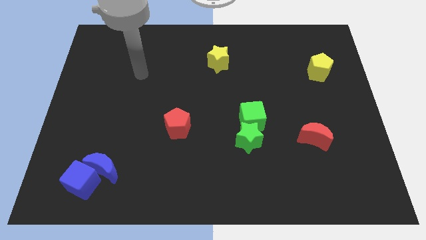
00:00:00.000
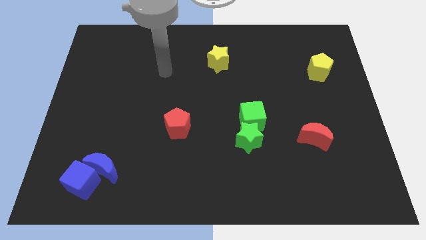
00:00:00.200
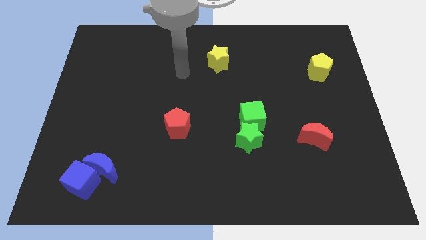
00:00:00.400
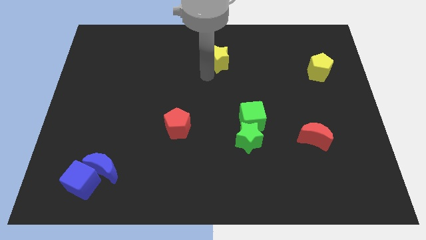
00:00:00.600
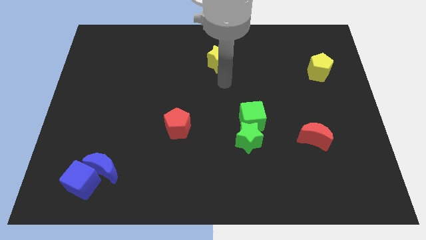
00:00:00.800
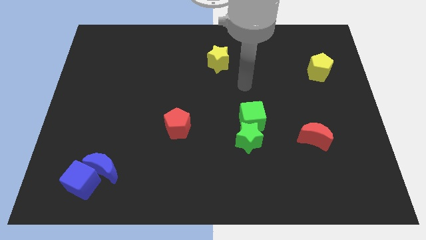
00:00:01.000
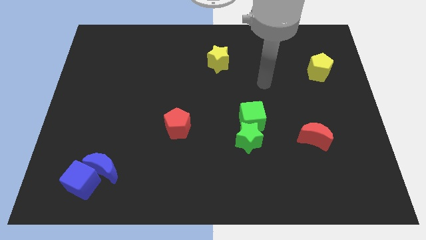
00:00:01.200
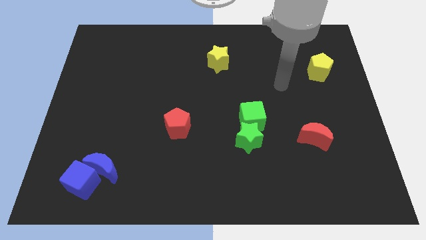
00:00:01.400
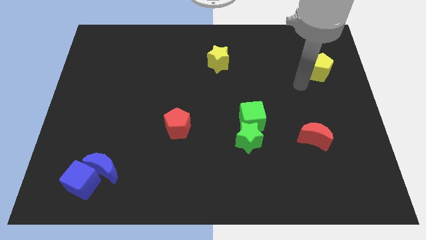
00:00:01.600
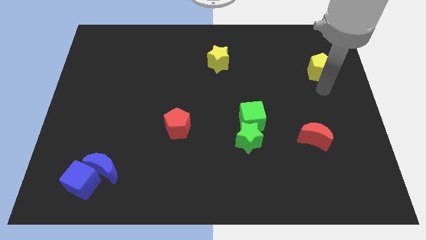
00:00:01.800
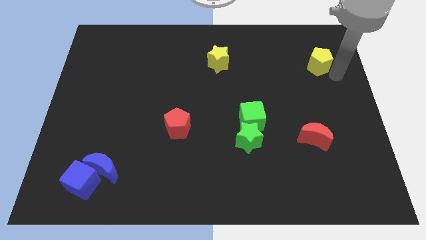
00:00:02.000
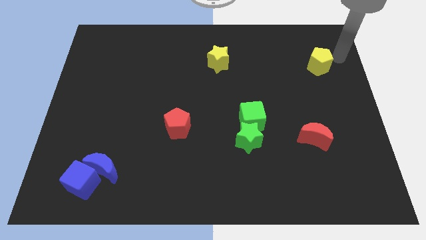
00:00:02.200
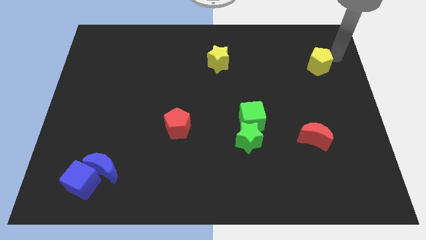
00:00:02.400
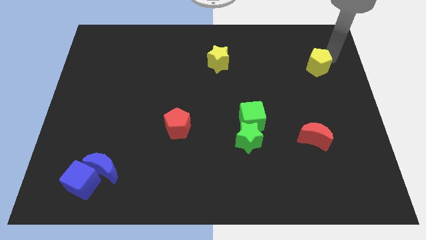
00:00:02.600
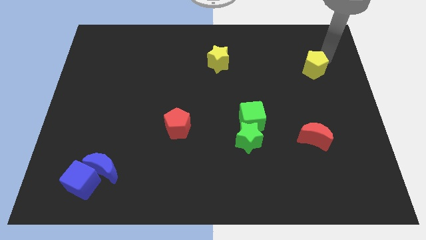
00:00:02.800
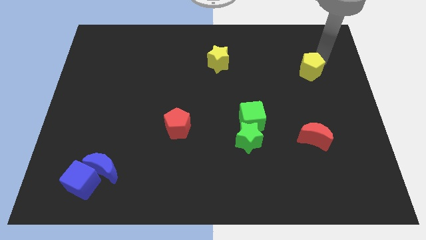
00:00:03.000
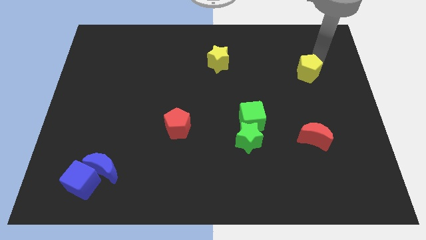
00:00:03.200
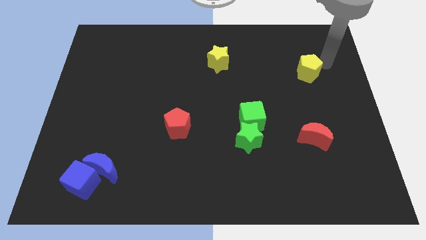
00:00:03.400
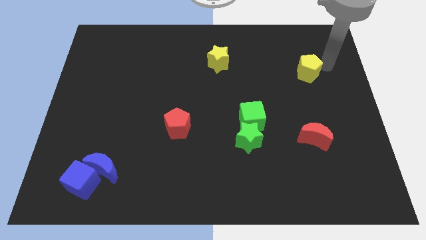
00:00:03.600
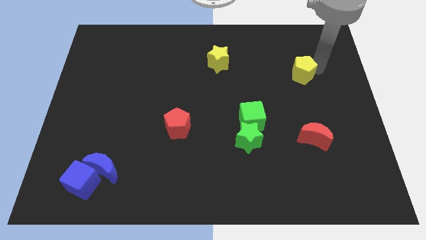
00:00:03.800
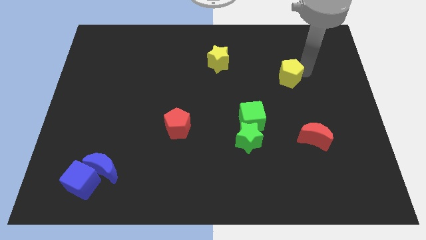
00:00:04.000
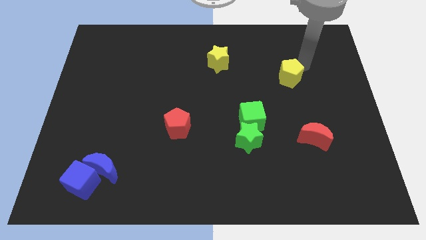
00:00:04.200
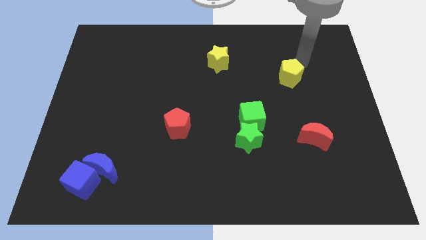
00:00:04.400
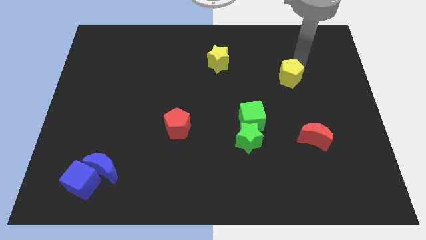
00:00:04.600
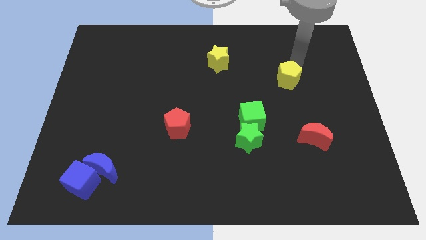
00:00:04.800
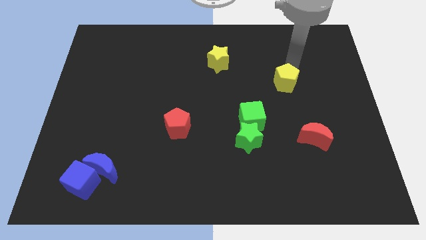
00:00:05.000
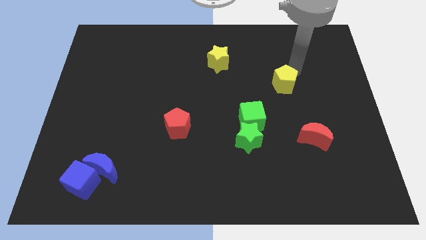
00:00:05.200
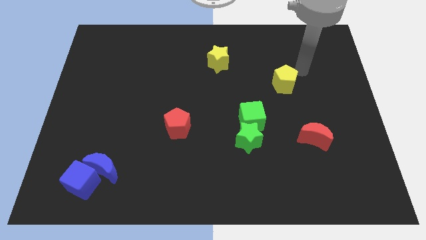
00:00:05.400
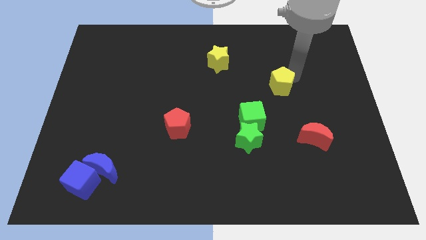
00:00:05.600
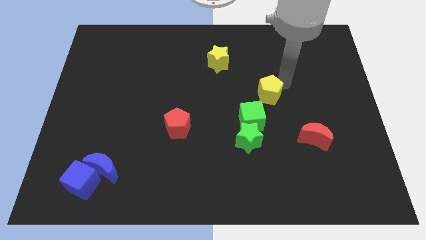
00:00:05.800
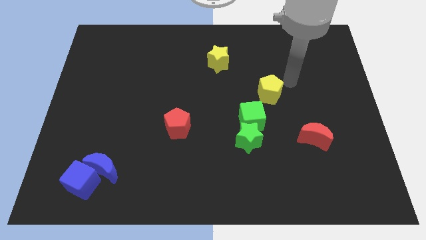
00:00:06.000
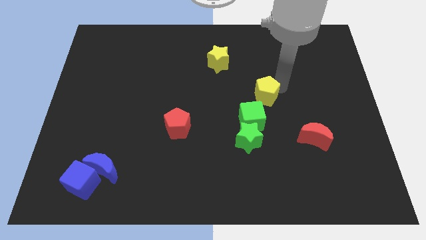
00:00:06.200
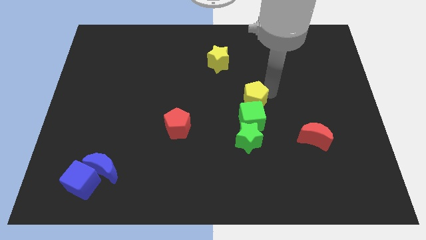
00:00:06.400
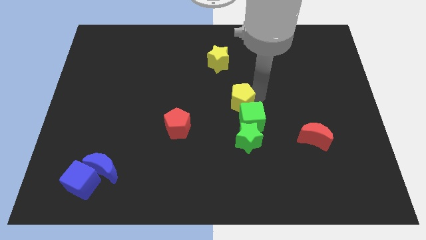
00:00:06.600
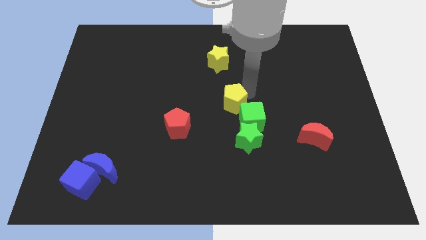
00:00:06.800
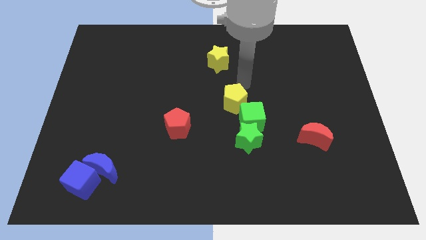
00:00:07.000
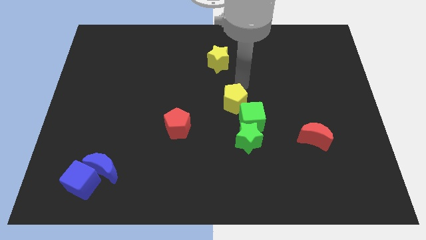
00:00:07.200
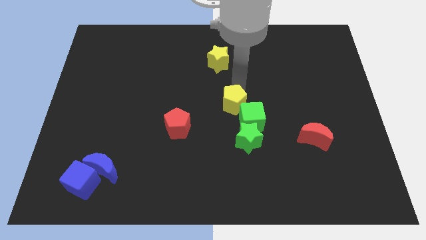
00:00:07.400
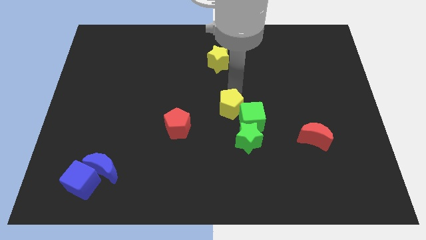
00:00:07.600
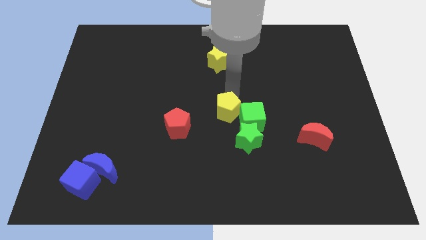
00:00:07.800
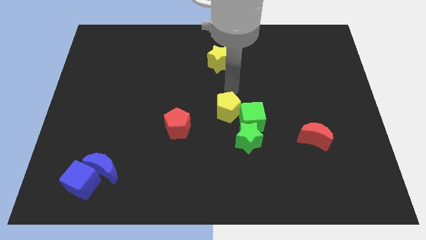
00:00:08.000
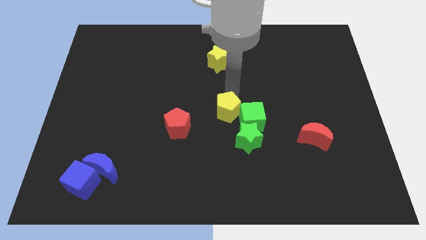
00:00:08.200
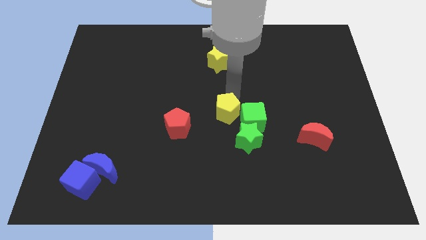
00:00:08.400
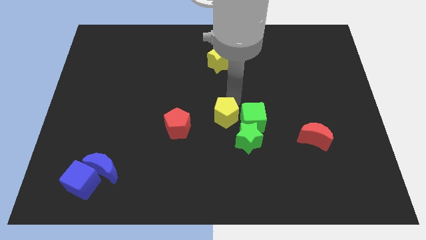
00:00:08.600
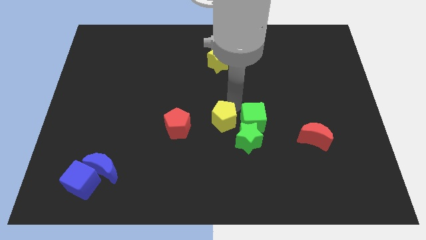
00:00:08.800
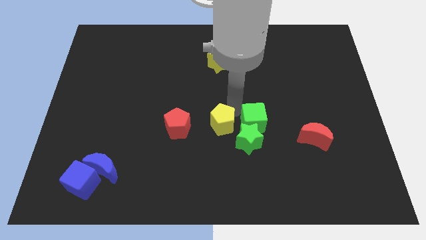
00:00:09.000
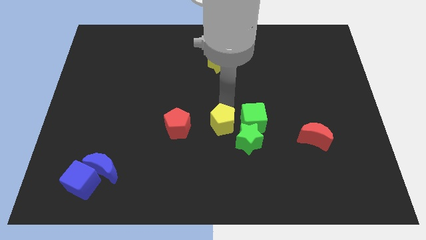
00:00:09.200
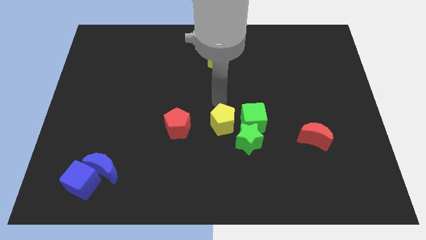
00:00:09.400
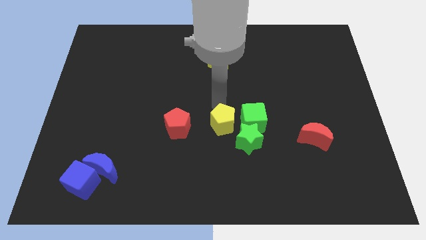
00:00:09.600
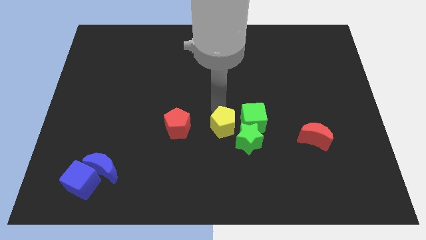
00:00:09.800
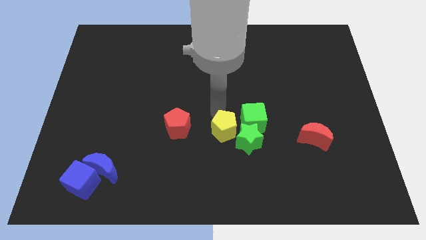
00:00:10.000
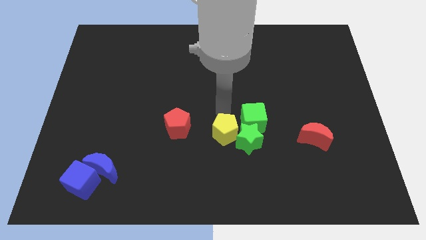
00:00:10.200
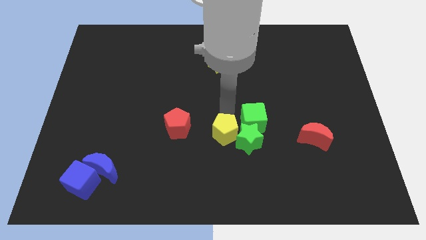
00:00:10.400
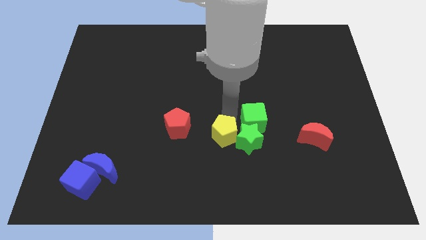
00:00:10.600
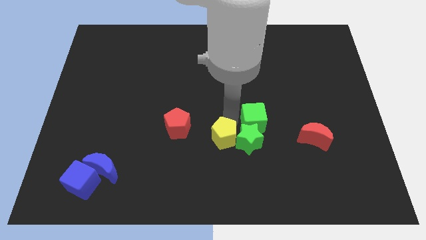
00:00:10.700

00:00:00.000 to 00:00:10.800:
slide the yellow pentagon to the bottom left side of the green star

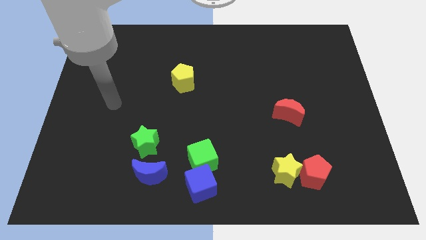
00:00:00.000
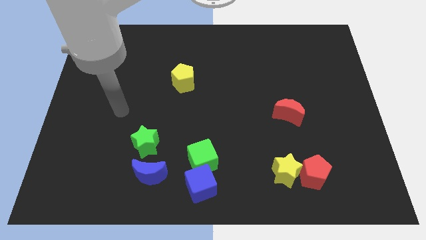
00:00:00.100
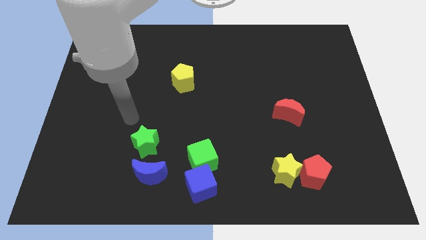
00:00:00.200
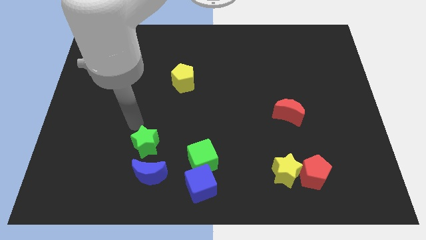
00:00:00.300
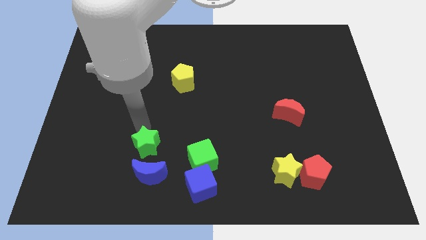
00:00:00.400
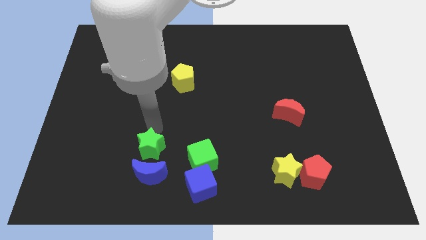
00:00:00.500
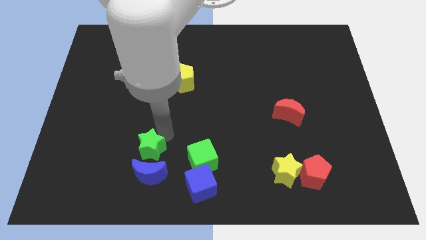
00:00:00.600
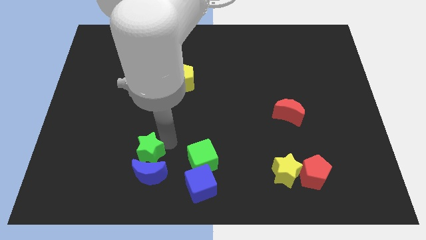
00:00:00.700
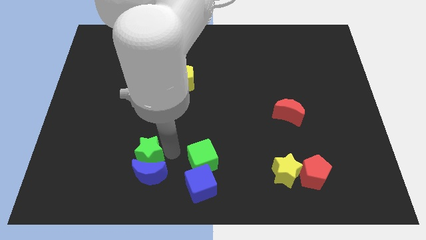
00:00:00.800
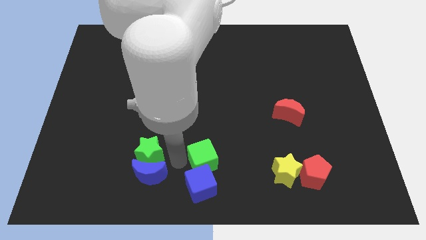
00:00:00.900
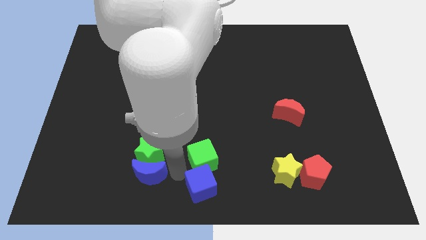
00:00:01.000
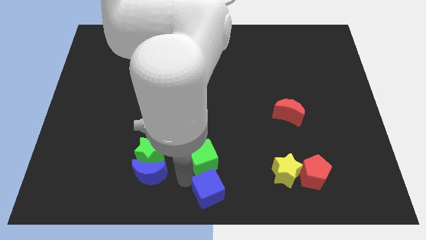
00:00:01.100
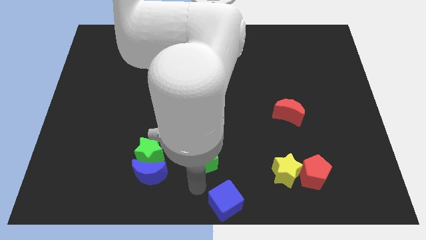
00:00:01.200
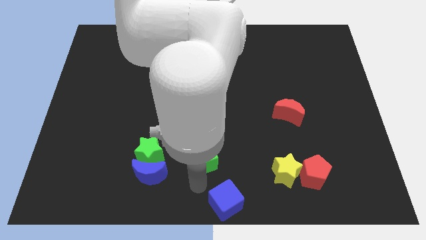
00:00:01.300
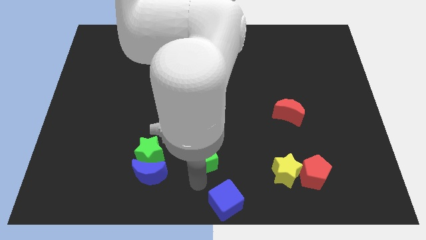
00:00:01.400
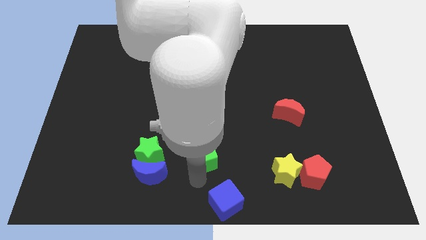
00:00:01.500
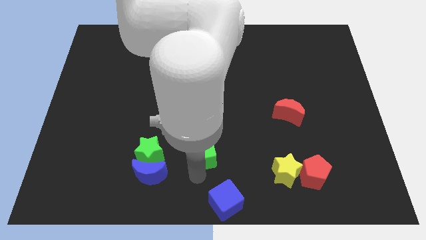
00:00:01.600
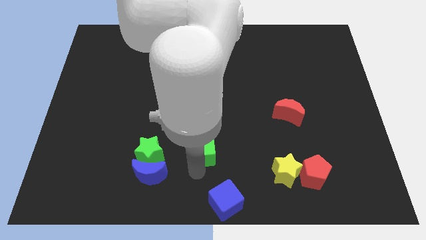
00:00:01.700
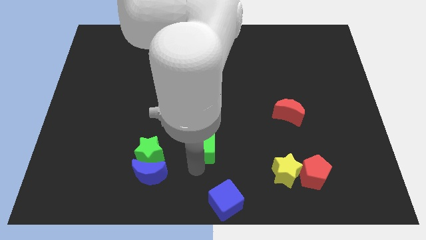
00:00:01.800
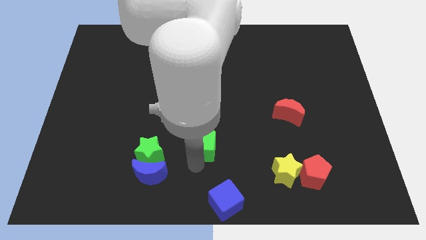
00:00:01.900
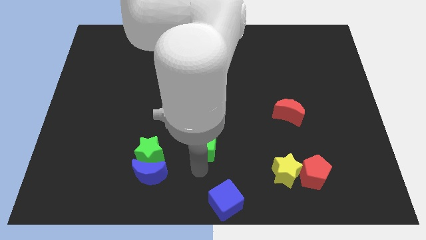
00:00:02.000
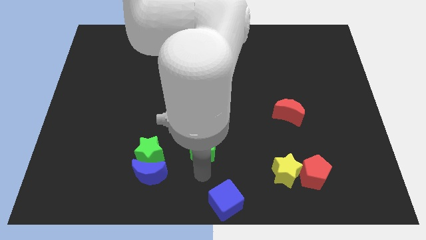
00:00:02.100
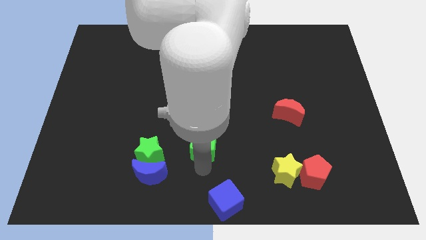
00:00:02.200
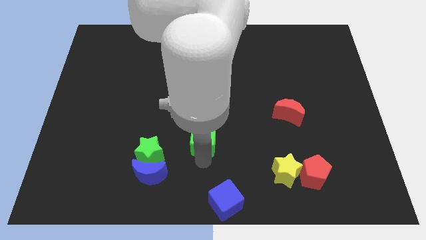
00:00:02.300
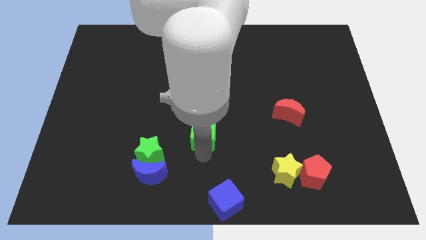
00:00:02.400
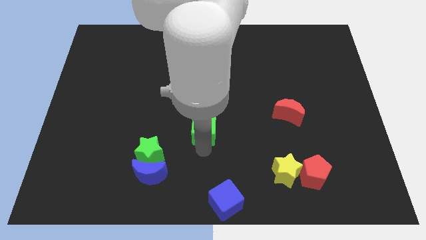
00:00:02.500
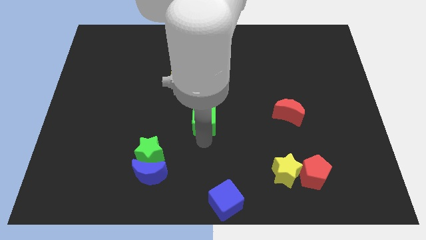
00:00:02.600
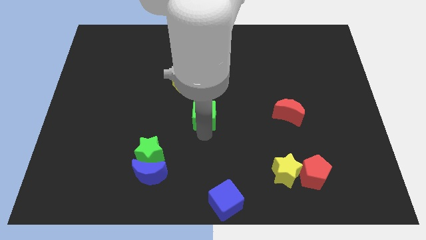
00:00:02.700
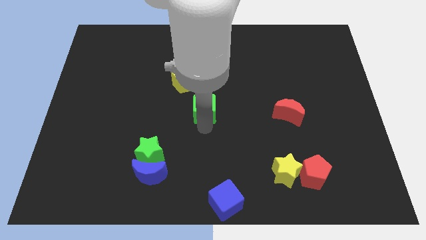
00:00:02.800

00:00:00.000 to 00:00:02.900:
push the green cube to the bottom right of the yellow pentagon
